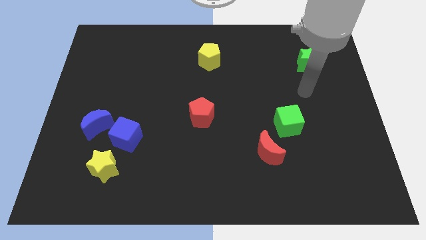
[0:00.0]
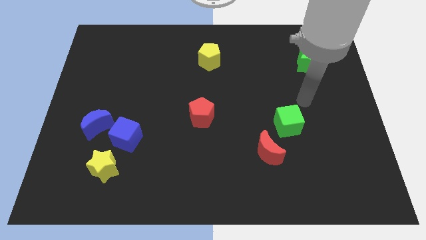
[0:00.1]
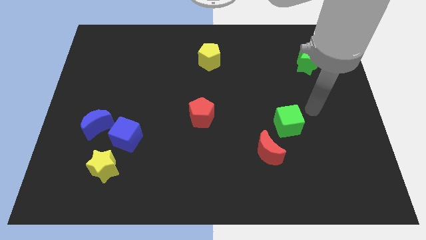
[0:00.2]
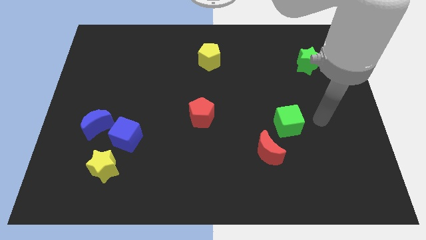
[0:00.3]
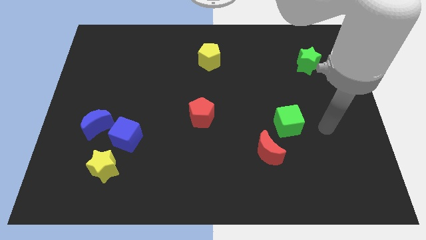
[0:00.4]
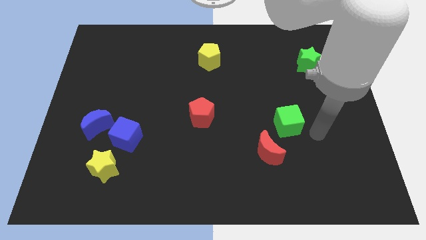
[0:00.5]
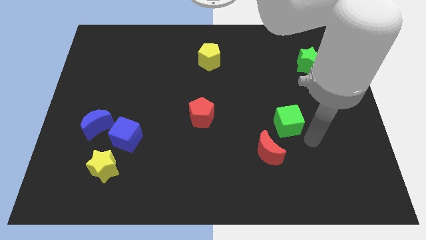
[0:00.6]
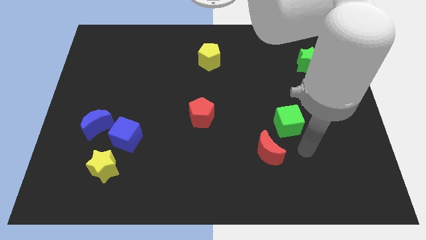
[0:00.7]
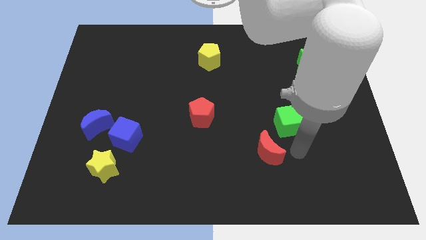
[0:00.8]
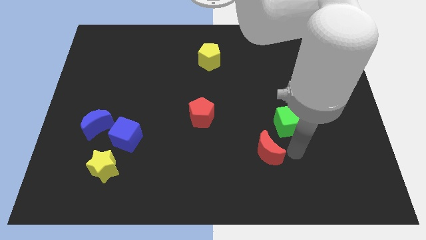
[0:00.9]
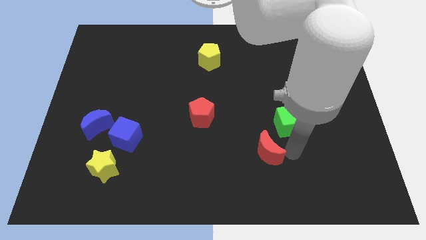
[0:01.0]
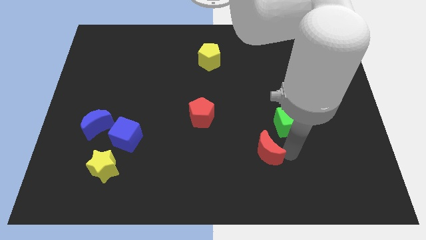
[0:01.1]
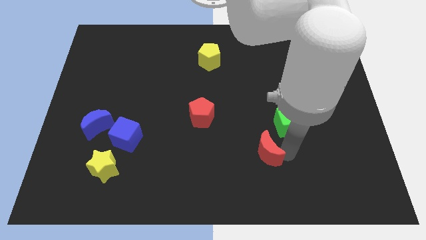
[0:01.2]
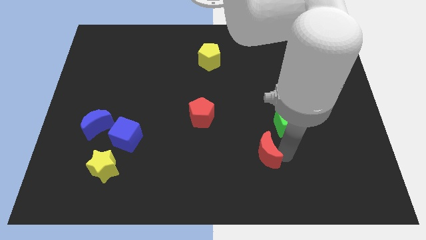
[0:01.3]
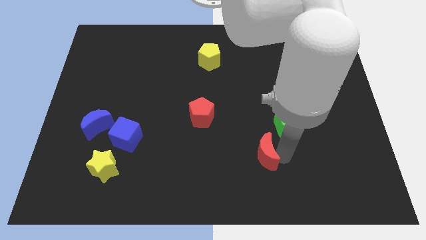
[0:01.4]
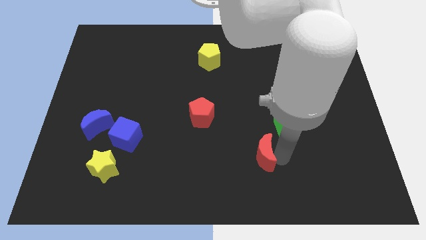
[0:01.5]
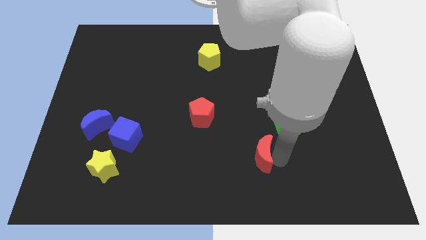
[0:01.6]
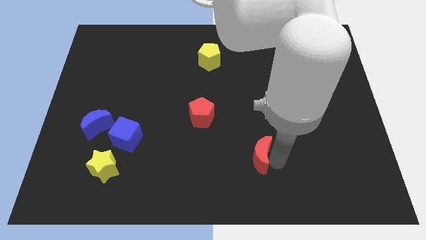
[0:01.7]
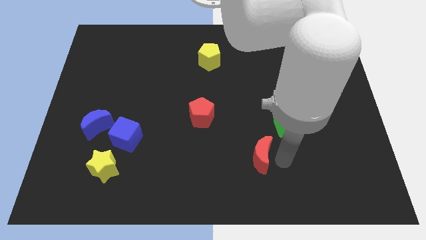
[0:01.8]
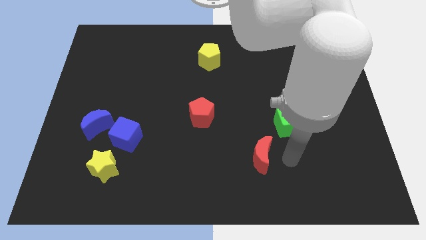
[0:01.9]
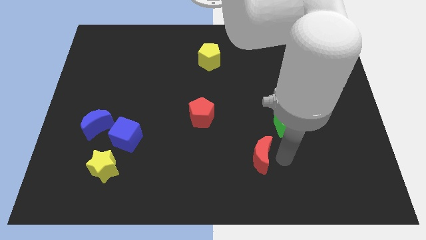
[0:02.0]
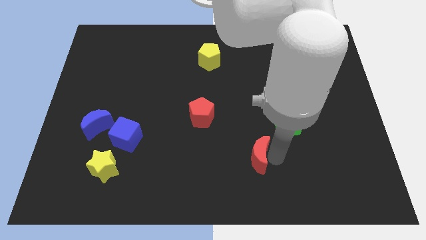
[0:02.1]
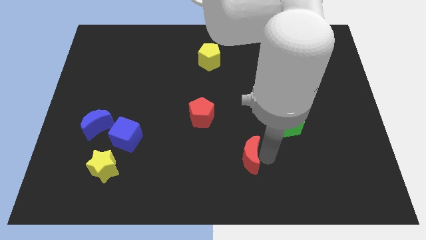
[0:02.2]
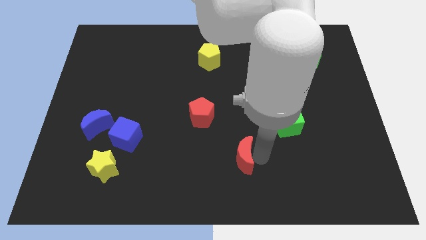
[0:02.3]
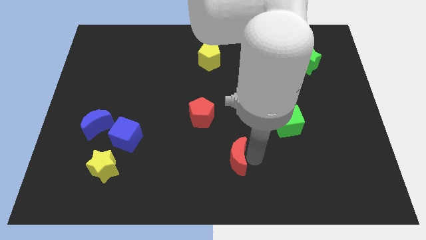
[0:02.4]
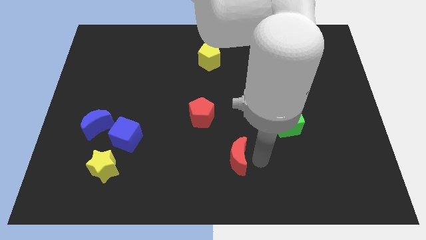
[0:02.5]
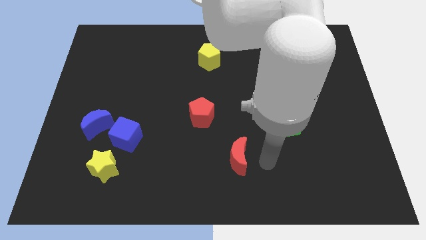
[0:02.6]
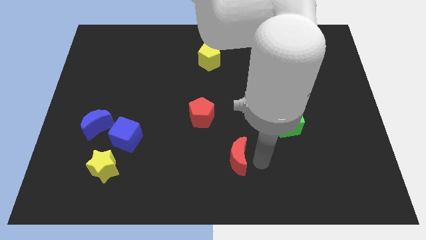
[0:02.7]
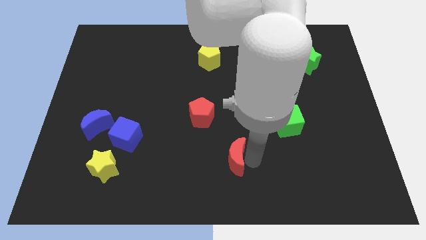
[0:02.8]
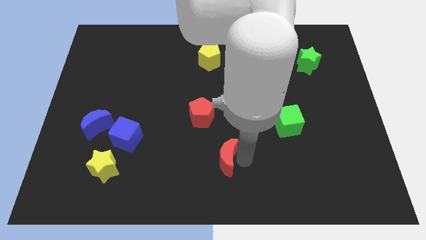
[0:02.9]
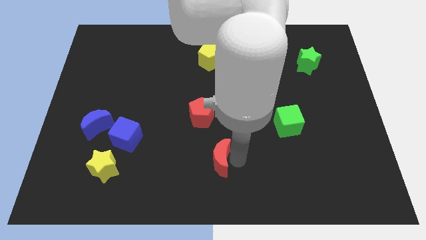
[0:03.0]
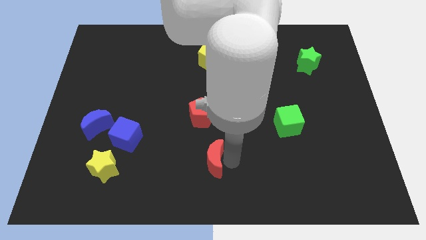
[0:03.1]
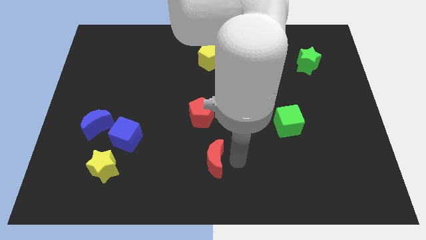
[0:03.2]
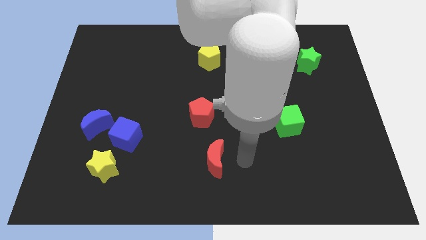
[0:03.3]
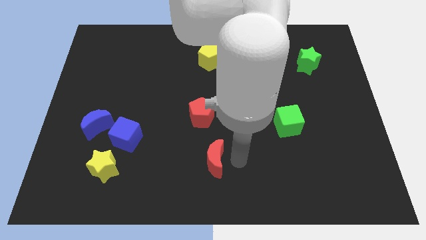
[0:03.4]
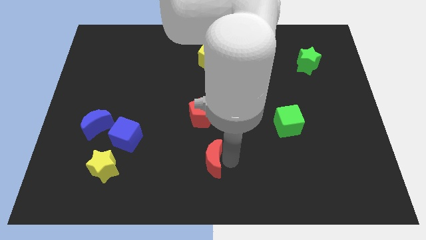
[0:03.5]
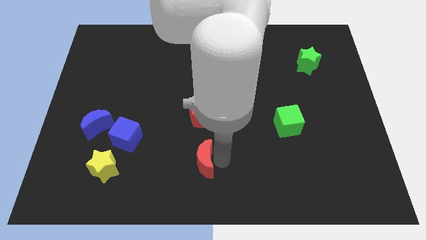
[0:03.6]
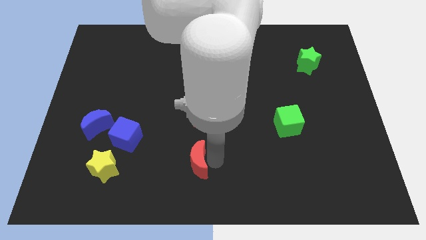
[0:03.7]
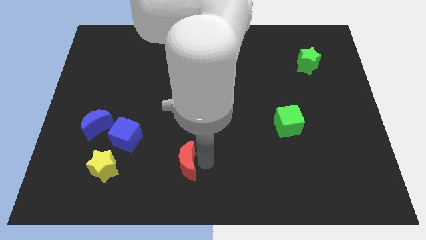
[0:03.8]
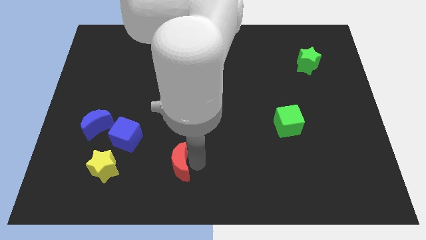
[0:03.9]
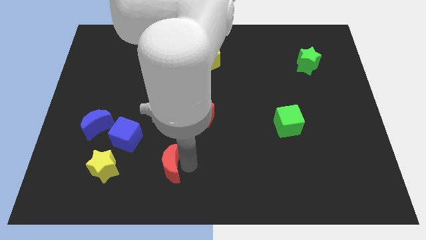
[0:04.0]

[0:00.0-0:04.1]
move the red moon left

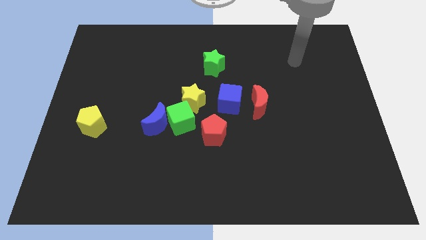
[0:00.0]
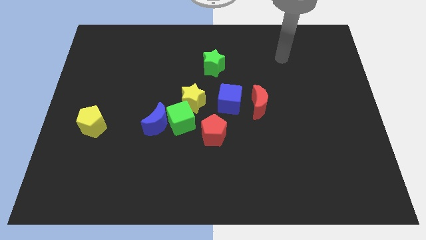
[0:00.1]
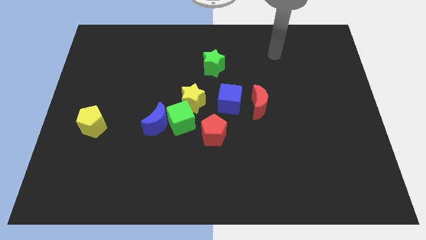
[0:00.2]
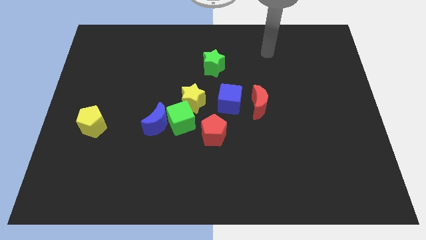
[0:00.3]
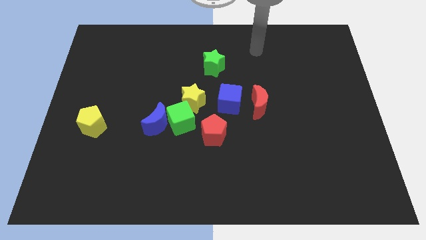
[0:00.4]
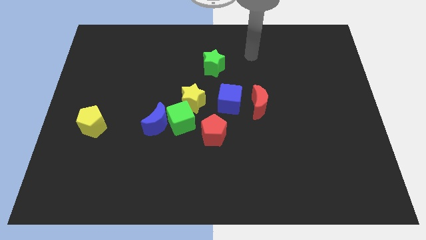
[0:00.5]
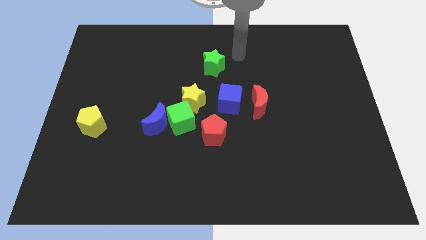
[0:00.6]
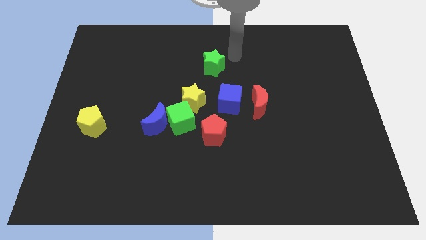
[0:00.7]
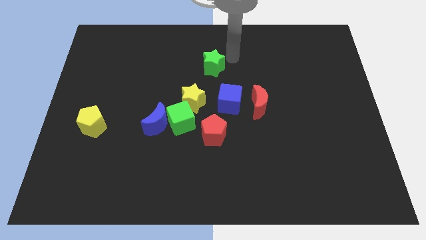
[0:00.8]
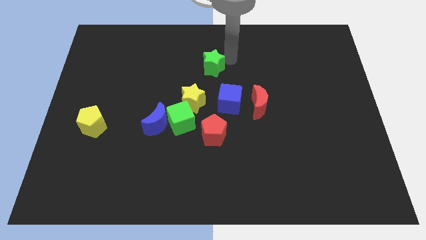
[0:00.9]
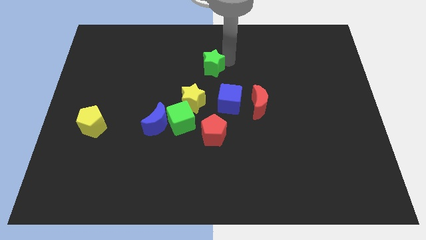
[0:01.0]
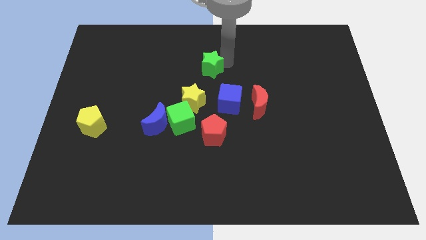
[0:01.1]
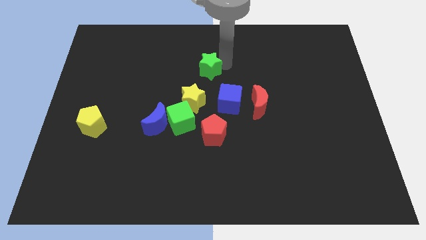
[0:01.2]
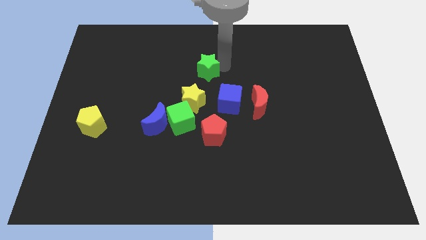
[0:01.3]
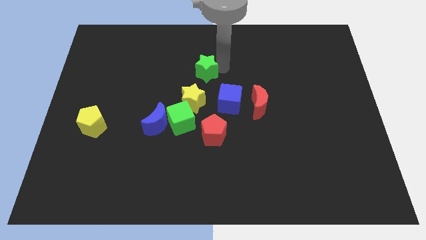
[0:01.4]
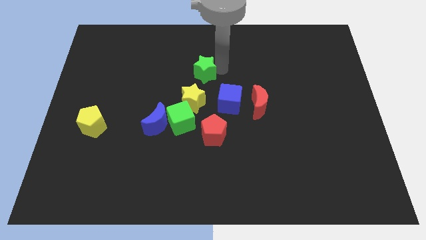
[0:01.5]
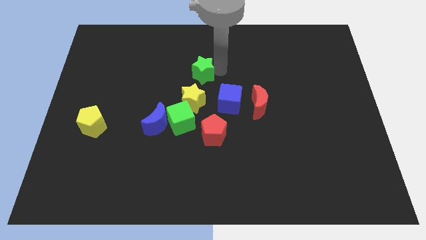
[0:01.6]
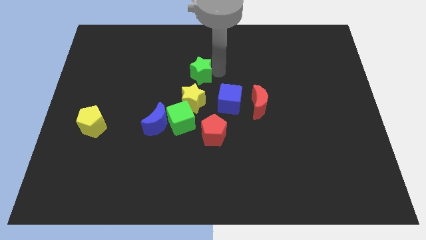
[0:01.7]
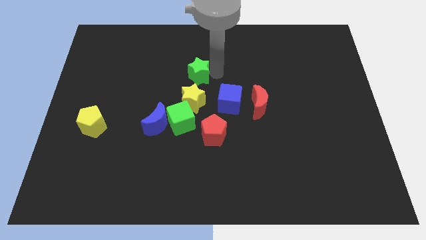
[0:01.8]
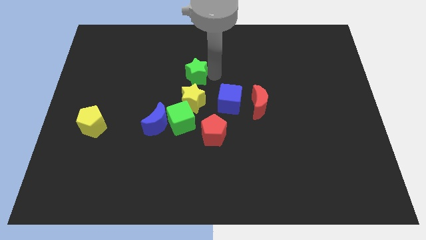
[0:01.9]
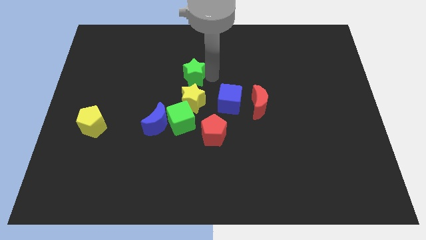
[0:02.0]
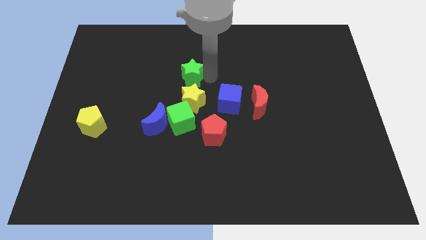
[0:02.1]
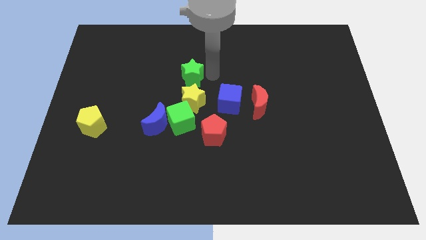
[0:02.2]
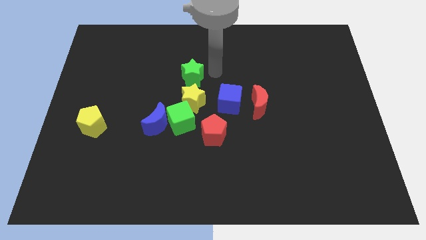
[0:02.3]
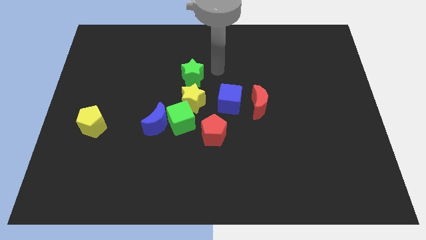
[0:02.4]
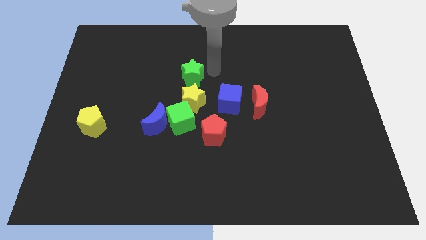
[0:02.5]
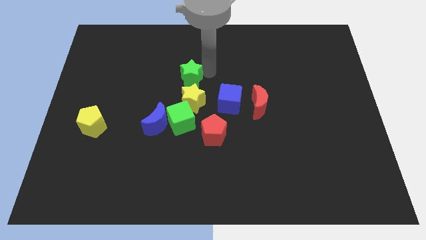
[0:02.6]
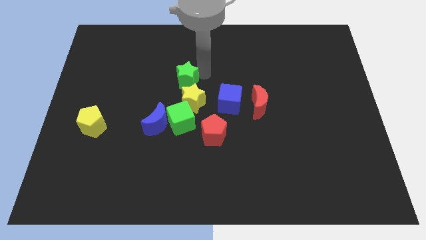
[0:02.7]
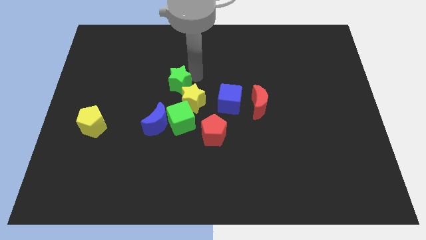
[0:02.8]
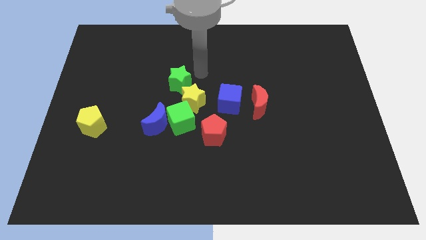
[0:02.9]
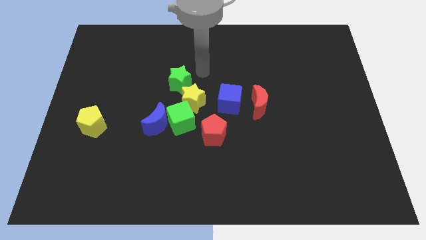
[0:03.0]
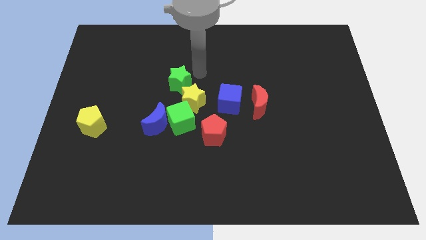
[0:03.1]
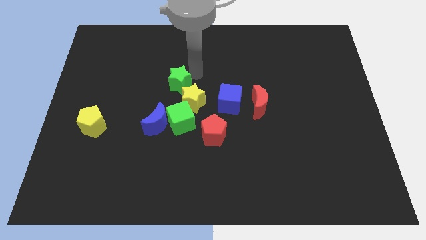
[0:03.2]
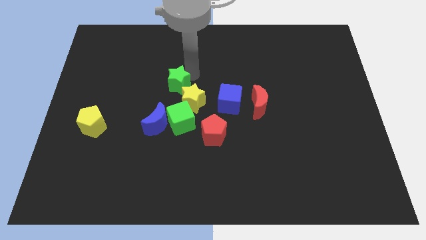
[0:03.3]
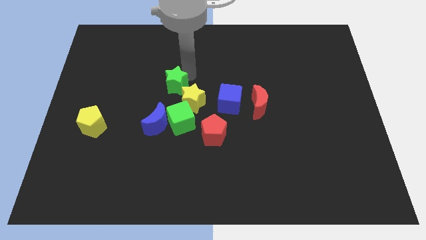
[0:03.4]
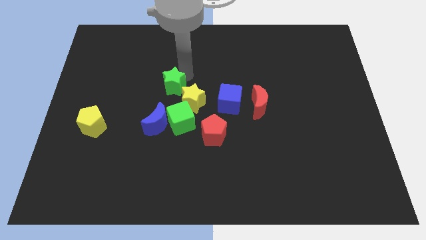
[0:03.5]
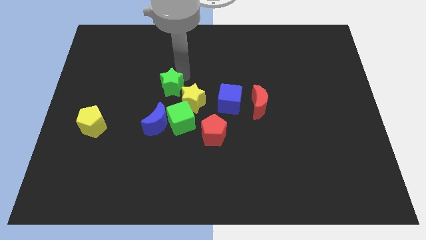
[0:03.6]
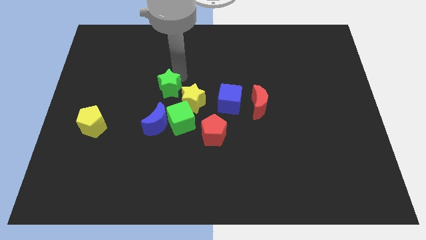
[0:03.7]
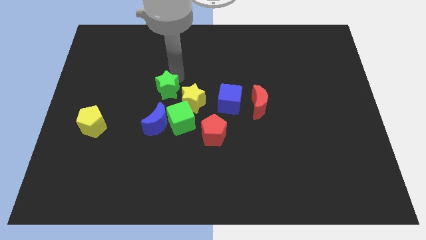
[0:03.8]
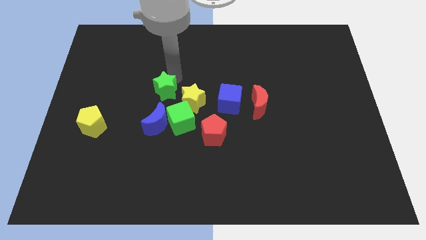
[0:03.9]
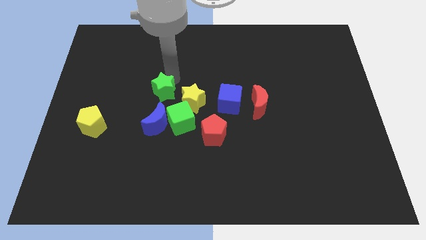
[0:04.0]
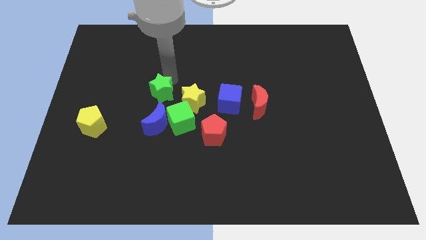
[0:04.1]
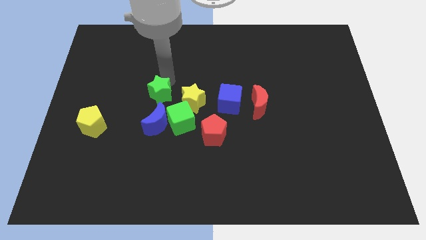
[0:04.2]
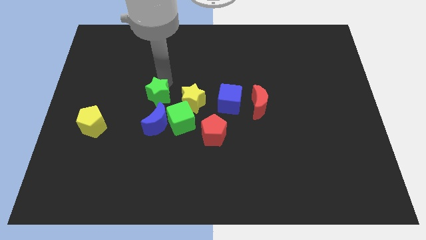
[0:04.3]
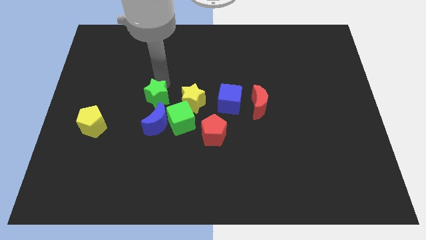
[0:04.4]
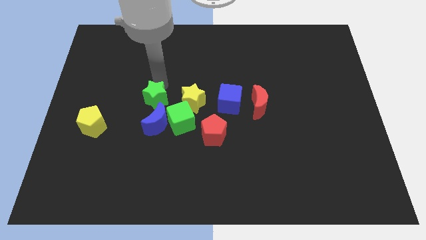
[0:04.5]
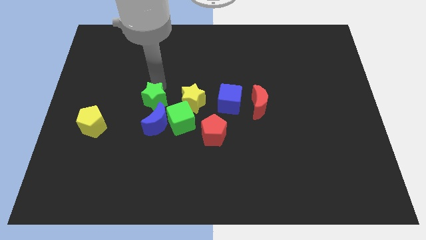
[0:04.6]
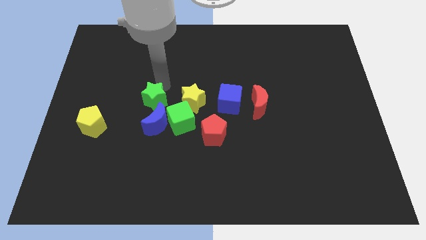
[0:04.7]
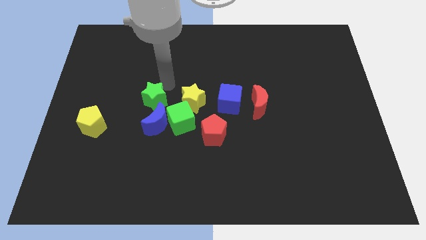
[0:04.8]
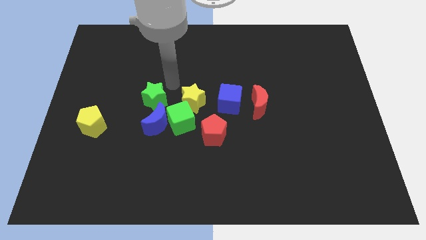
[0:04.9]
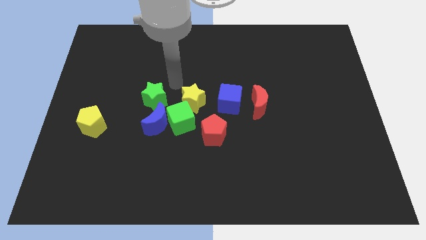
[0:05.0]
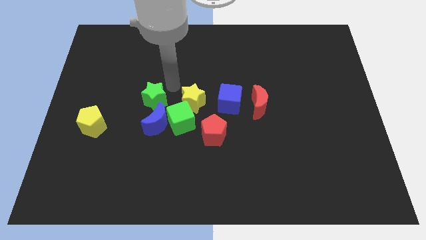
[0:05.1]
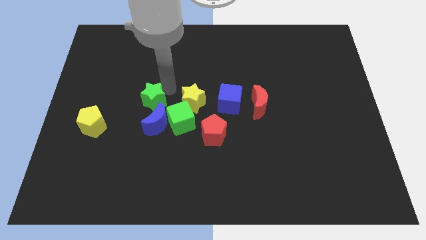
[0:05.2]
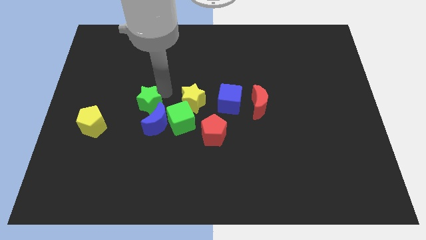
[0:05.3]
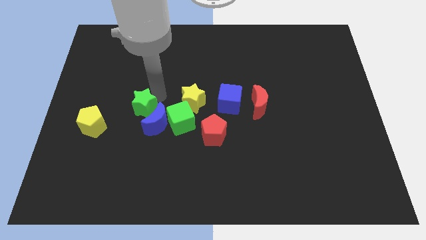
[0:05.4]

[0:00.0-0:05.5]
push the green star downwards and to the left
